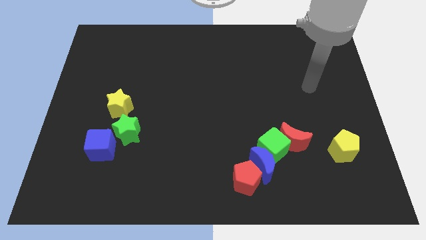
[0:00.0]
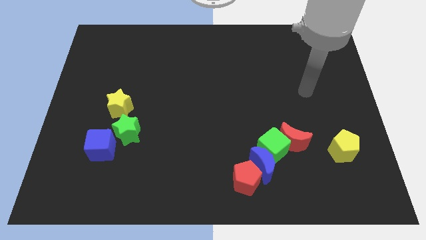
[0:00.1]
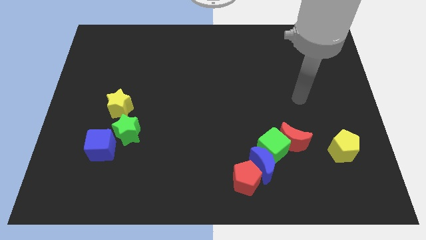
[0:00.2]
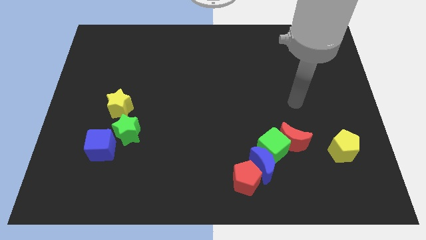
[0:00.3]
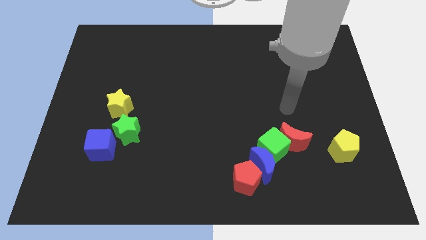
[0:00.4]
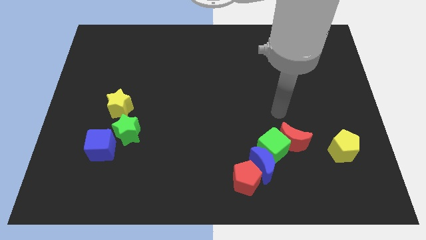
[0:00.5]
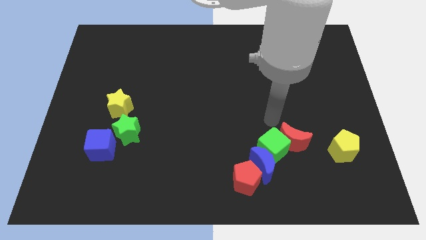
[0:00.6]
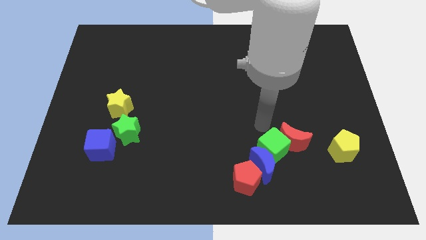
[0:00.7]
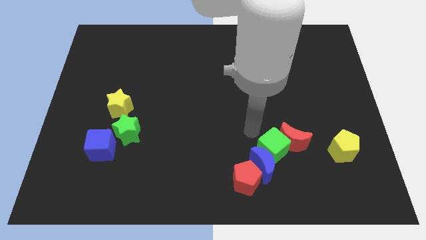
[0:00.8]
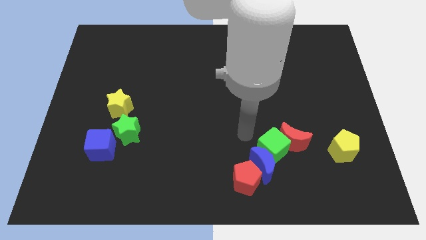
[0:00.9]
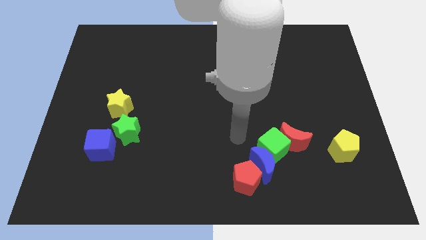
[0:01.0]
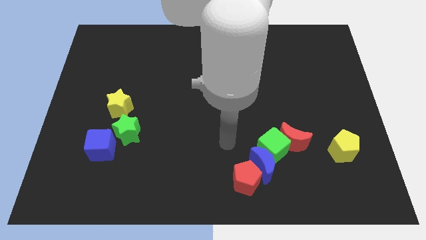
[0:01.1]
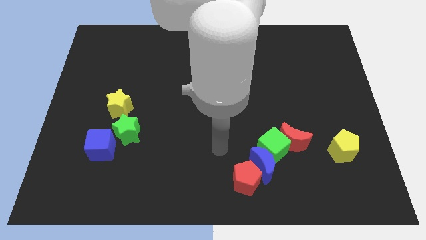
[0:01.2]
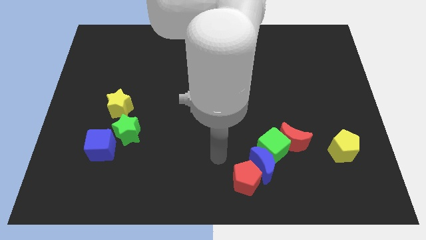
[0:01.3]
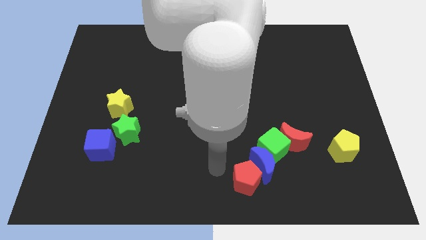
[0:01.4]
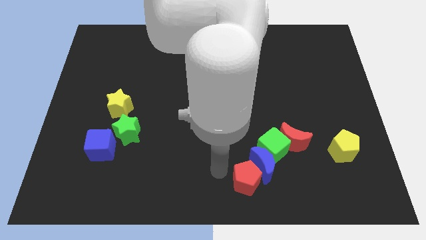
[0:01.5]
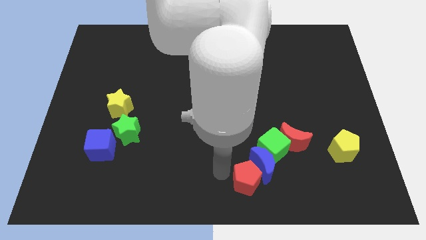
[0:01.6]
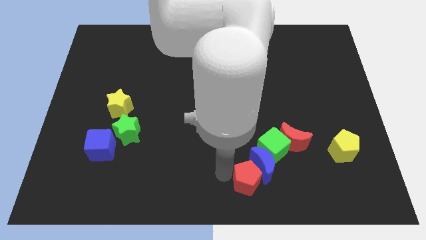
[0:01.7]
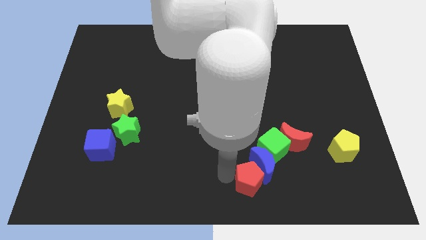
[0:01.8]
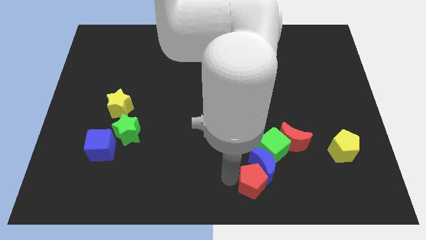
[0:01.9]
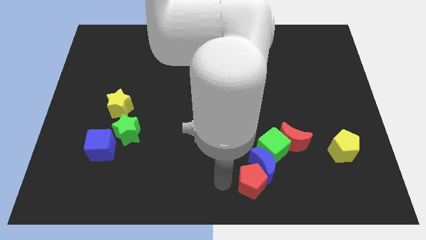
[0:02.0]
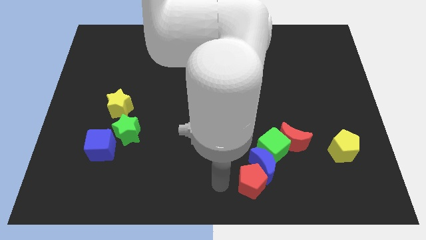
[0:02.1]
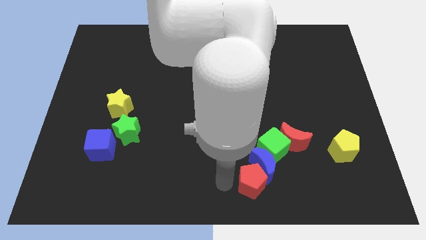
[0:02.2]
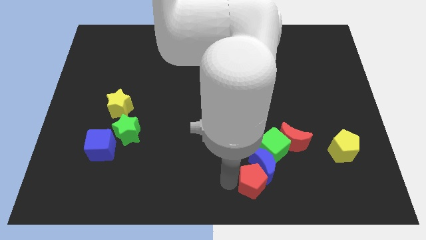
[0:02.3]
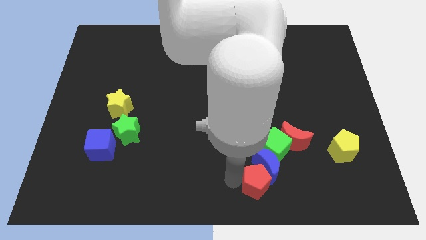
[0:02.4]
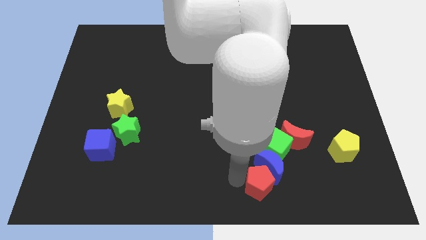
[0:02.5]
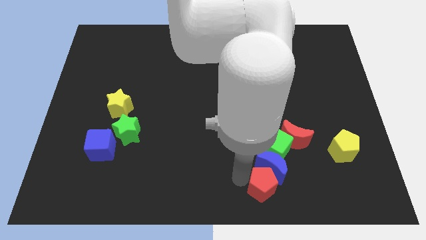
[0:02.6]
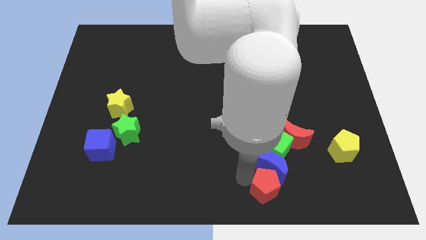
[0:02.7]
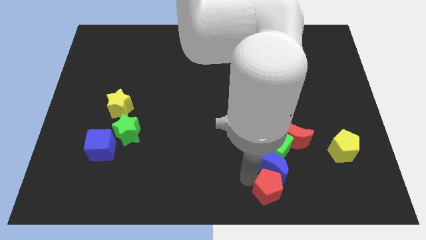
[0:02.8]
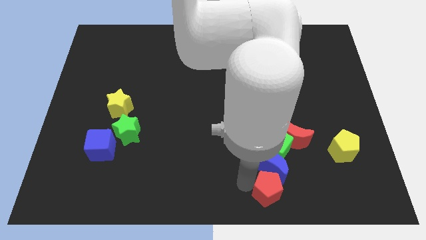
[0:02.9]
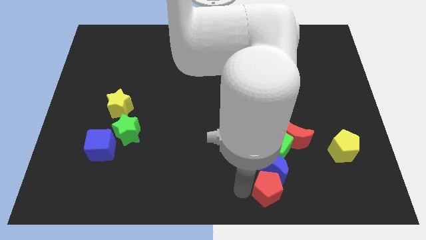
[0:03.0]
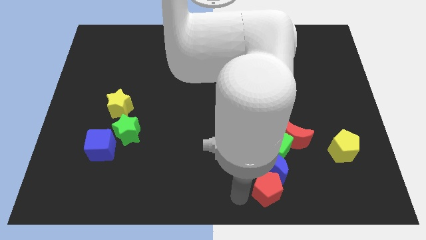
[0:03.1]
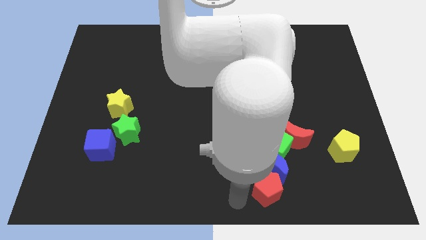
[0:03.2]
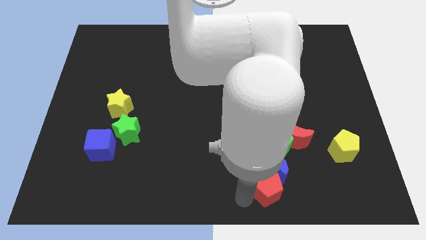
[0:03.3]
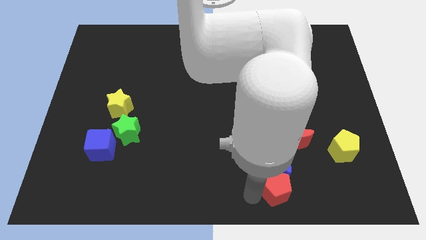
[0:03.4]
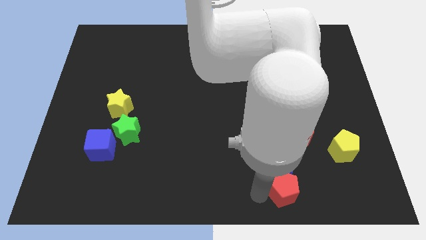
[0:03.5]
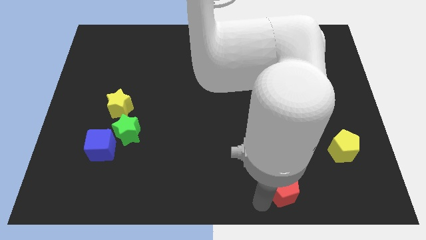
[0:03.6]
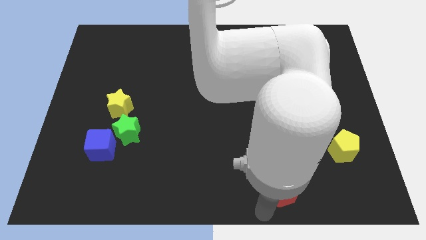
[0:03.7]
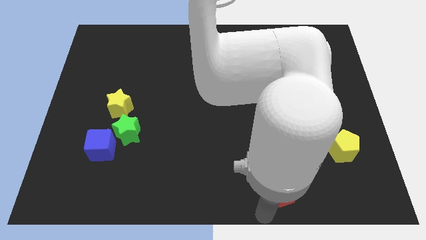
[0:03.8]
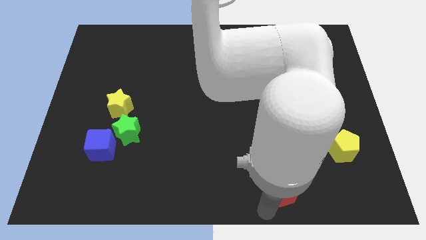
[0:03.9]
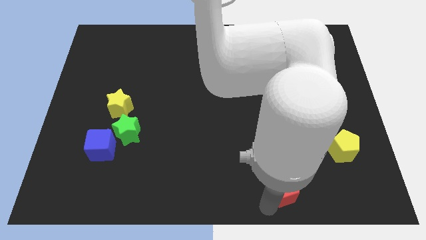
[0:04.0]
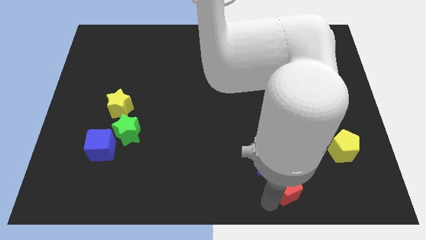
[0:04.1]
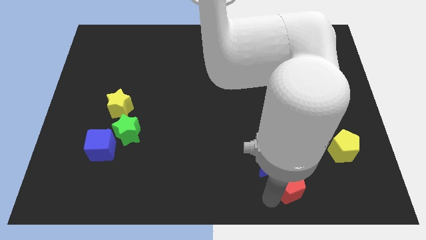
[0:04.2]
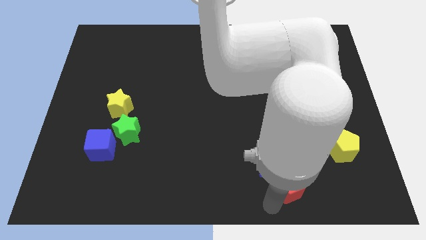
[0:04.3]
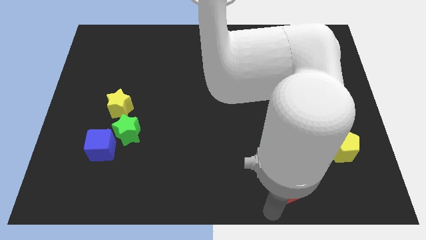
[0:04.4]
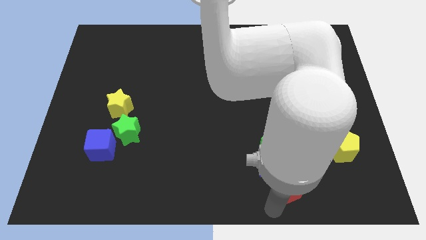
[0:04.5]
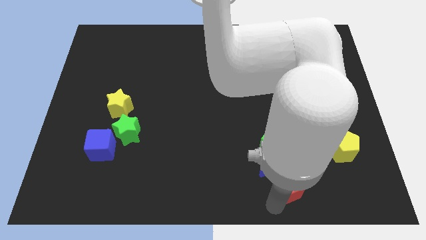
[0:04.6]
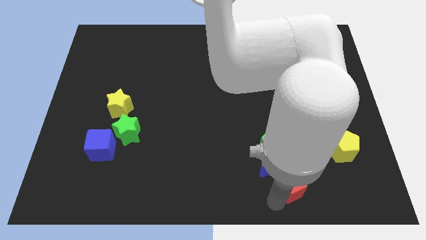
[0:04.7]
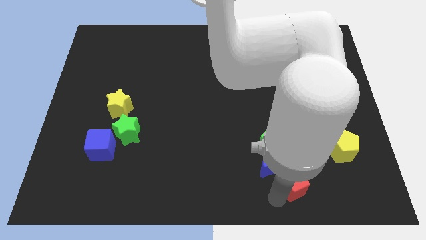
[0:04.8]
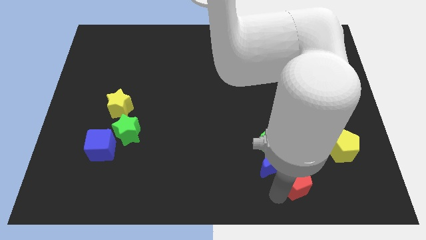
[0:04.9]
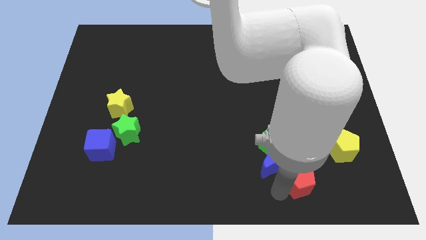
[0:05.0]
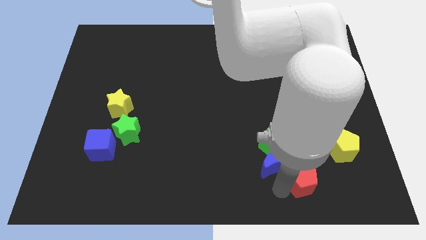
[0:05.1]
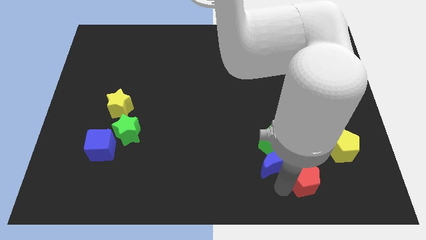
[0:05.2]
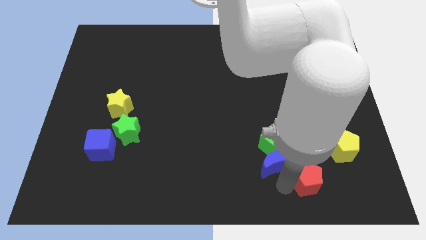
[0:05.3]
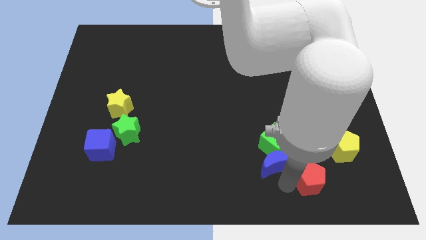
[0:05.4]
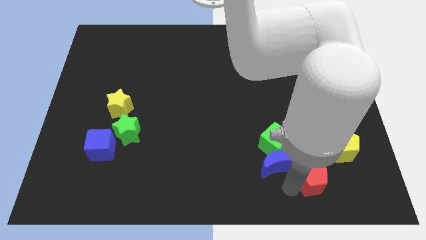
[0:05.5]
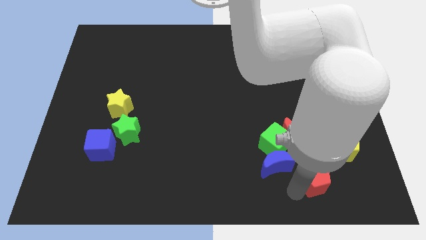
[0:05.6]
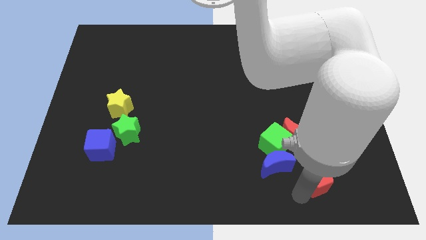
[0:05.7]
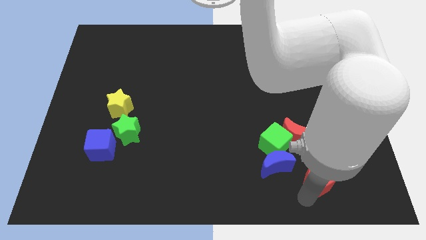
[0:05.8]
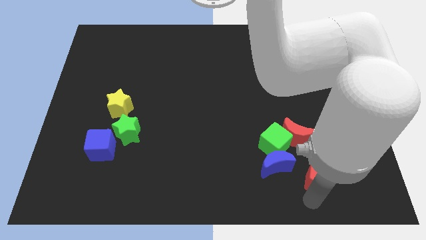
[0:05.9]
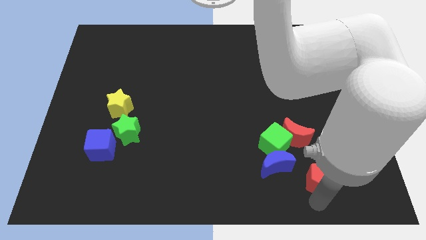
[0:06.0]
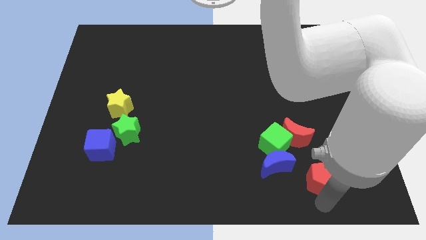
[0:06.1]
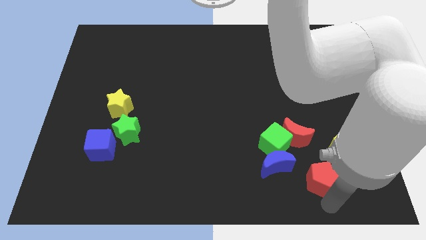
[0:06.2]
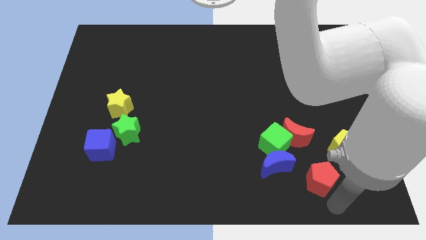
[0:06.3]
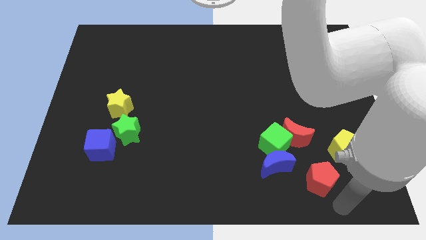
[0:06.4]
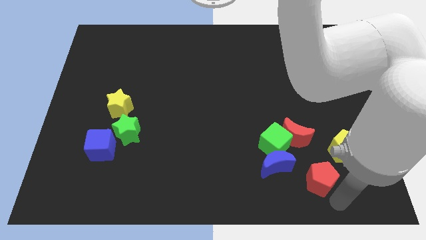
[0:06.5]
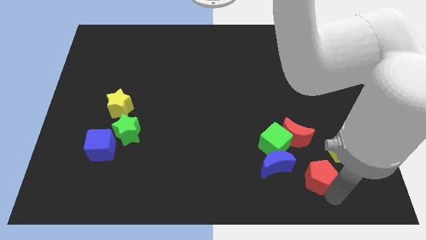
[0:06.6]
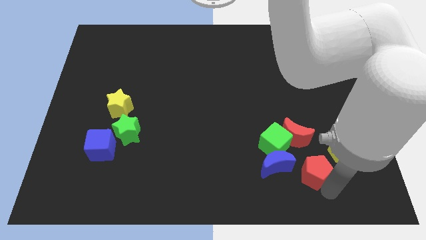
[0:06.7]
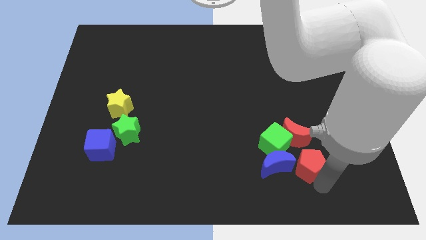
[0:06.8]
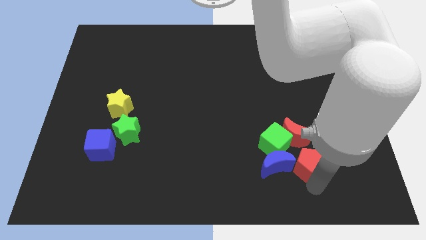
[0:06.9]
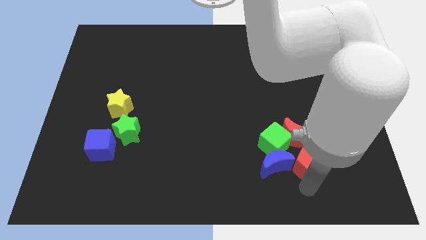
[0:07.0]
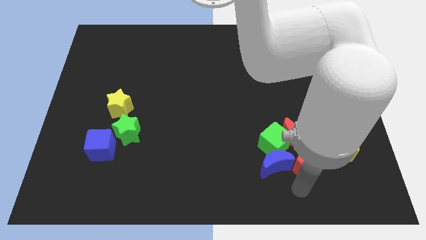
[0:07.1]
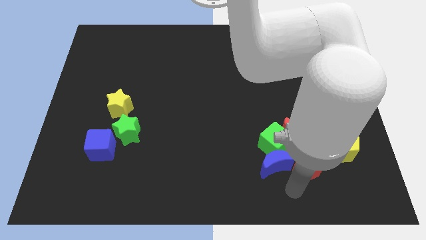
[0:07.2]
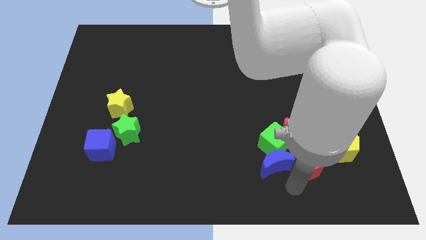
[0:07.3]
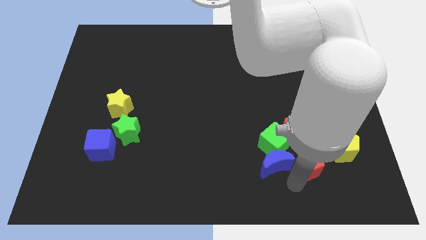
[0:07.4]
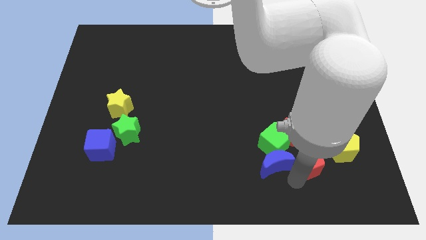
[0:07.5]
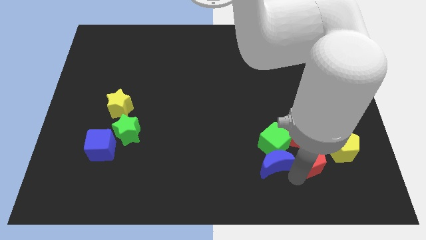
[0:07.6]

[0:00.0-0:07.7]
slide the red pentagon to the right of the green cube

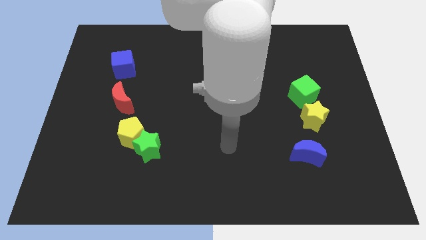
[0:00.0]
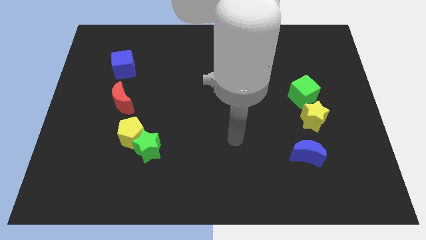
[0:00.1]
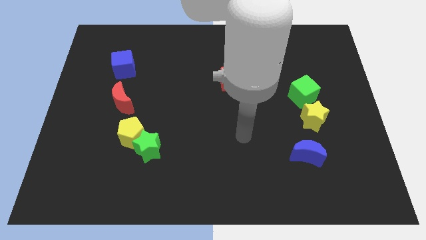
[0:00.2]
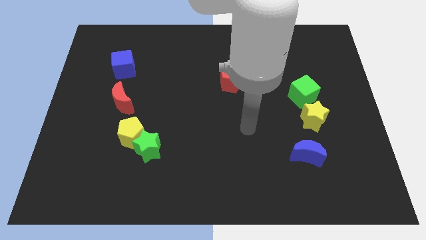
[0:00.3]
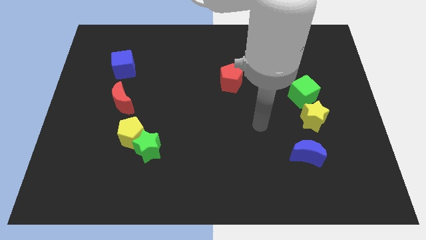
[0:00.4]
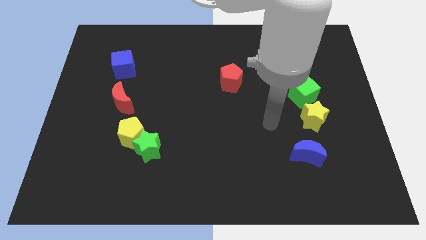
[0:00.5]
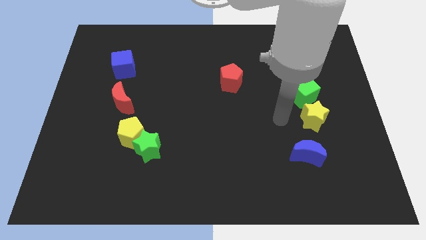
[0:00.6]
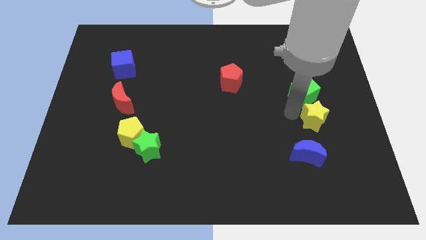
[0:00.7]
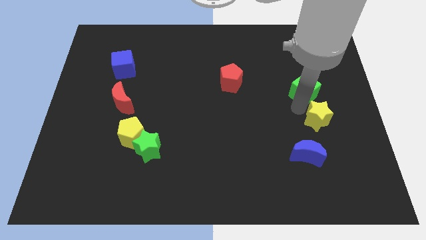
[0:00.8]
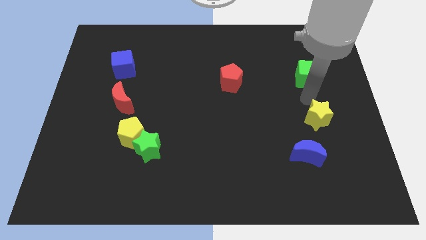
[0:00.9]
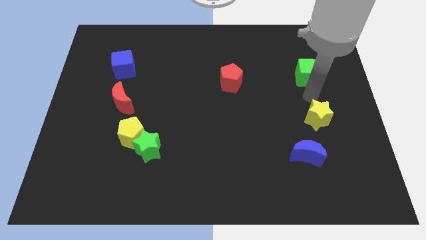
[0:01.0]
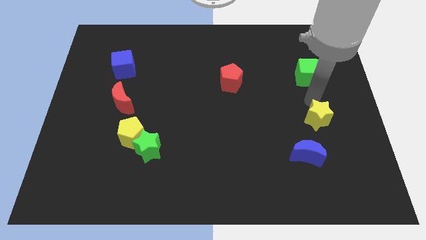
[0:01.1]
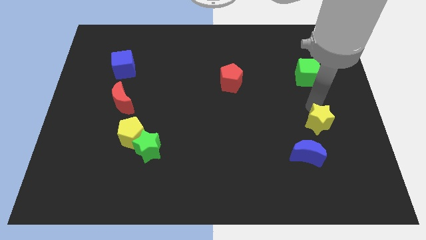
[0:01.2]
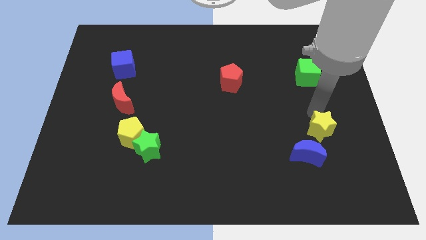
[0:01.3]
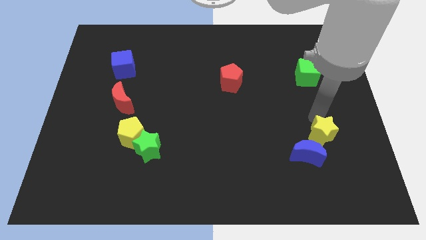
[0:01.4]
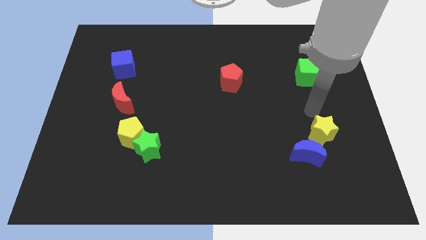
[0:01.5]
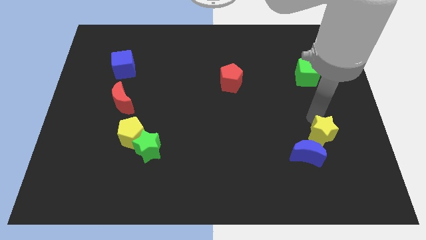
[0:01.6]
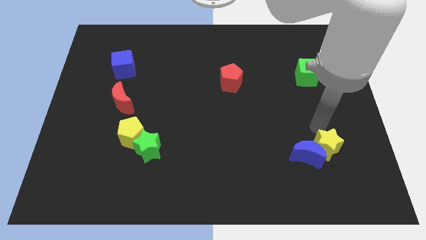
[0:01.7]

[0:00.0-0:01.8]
move the yellow star to the bottom right of the blue moon
